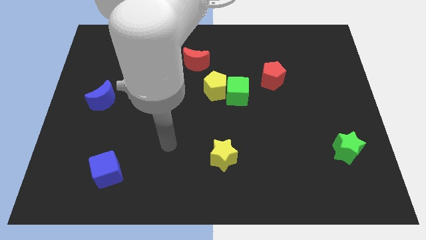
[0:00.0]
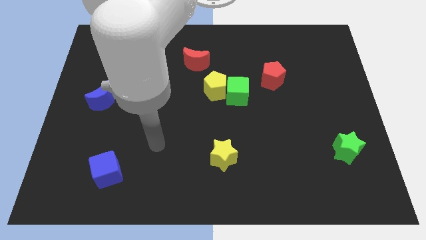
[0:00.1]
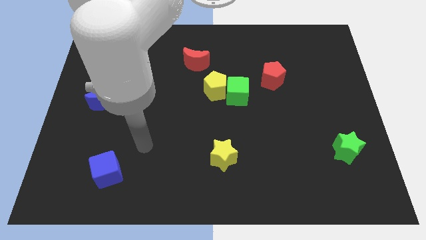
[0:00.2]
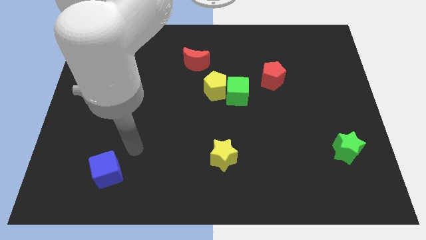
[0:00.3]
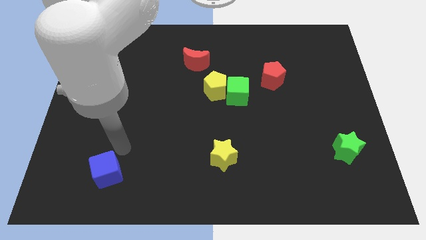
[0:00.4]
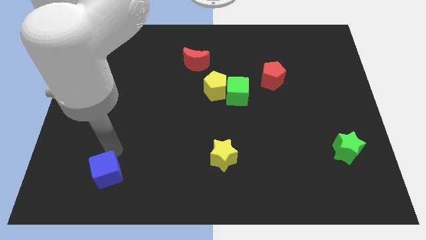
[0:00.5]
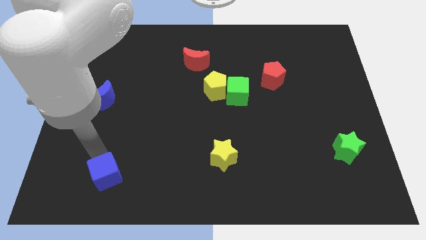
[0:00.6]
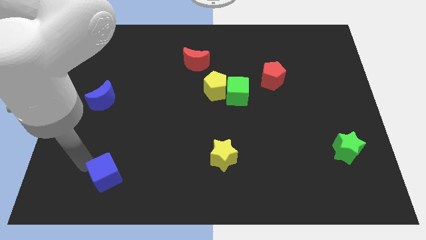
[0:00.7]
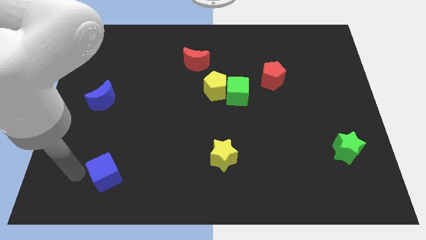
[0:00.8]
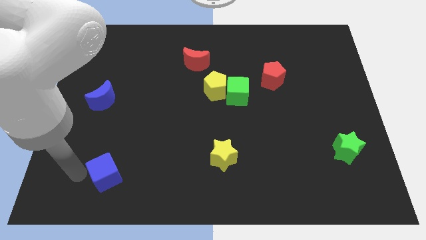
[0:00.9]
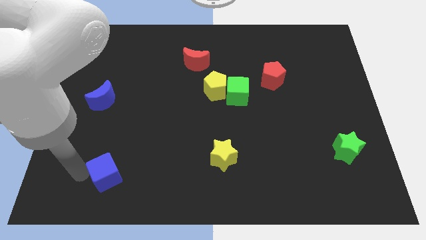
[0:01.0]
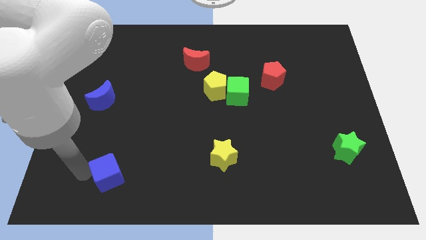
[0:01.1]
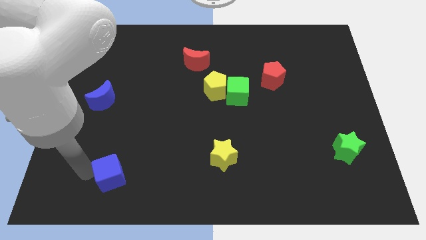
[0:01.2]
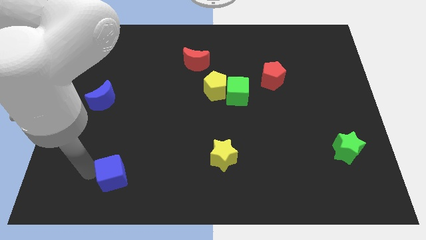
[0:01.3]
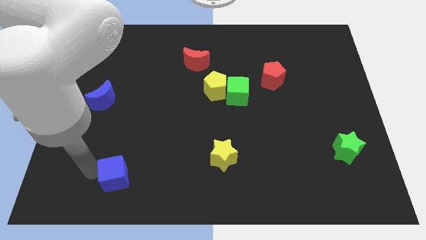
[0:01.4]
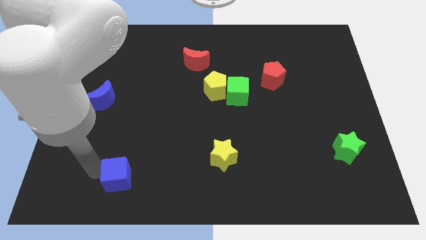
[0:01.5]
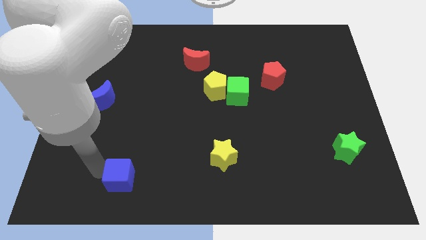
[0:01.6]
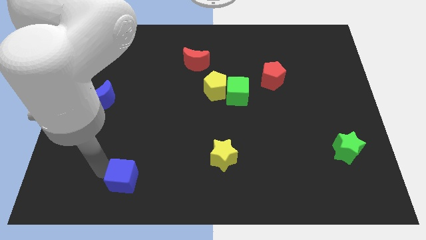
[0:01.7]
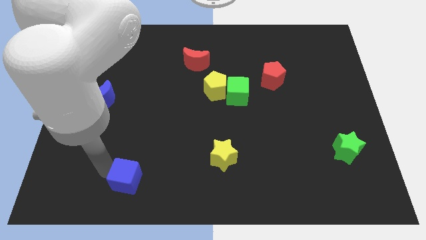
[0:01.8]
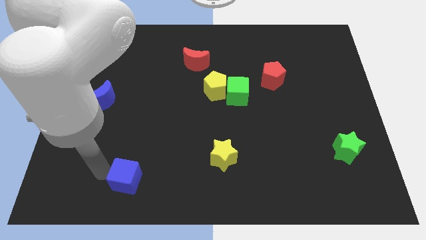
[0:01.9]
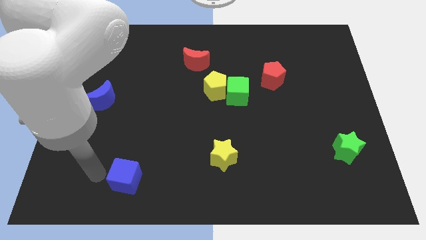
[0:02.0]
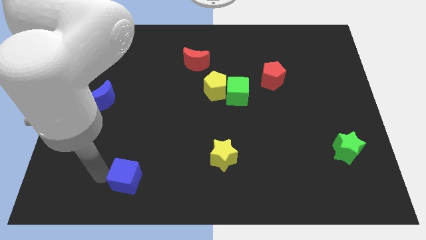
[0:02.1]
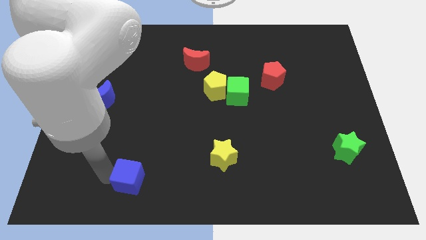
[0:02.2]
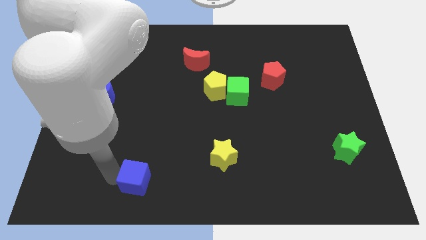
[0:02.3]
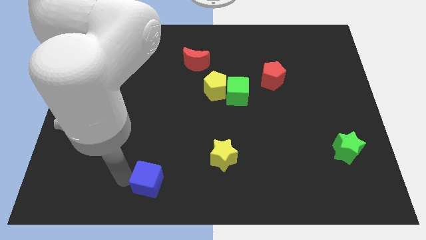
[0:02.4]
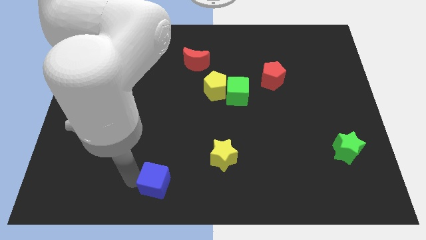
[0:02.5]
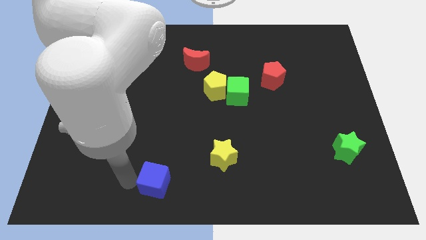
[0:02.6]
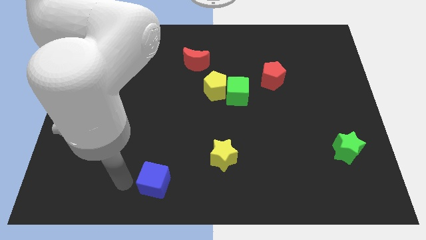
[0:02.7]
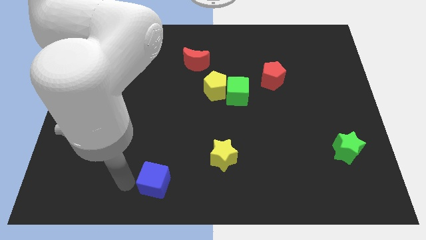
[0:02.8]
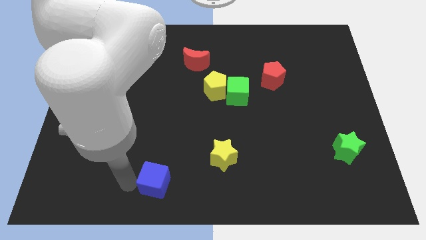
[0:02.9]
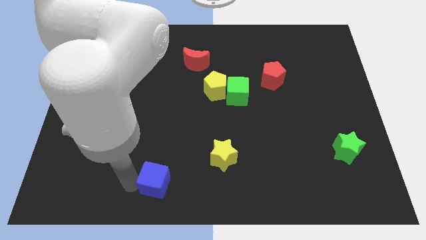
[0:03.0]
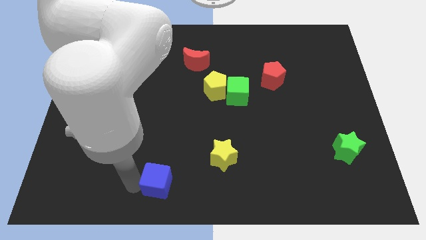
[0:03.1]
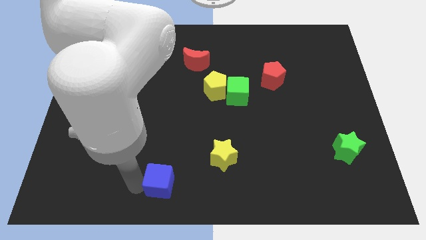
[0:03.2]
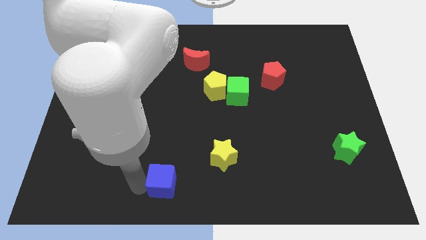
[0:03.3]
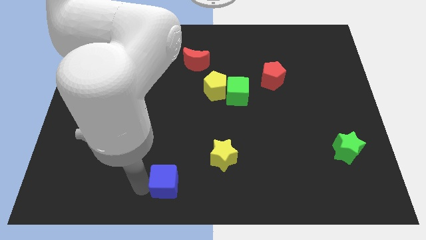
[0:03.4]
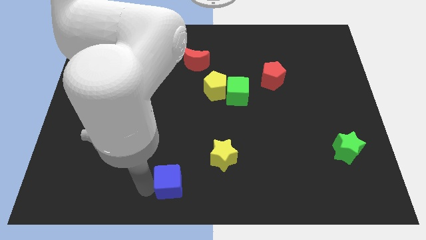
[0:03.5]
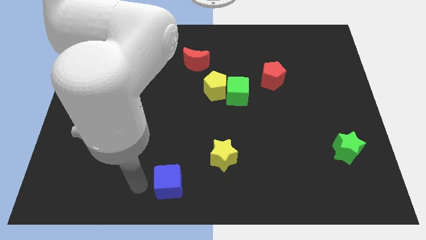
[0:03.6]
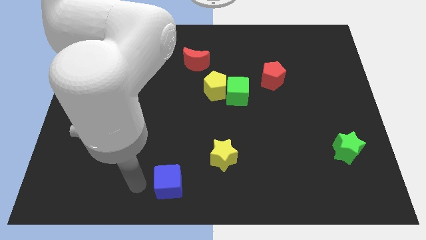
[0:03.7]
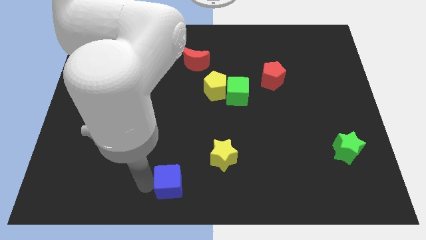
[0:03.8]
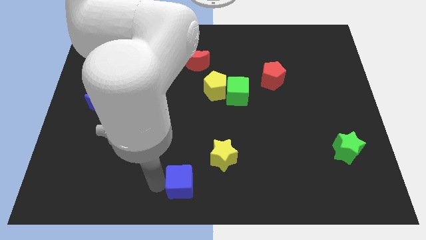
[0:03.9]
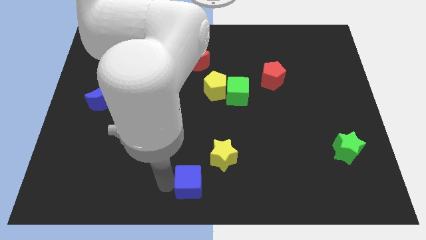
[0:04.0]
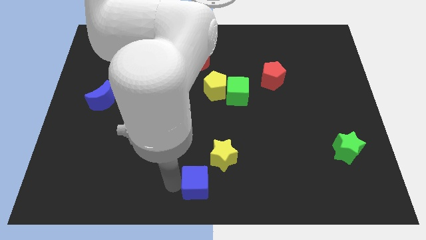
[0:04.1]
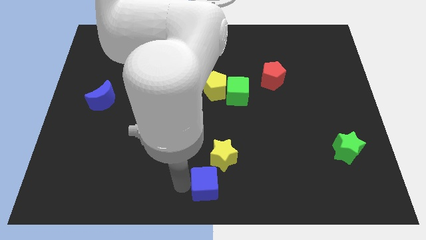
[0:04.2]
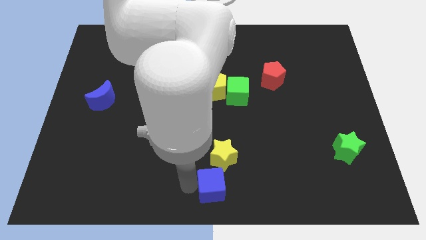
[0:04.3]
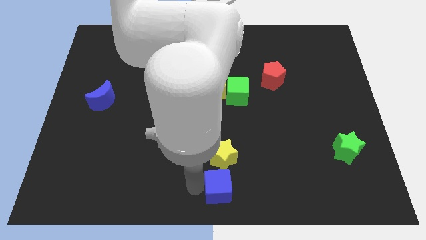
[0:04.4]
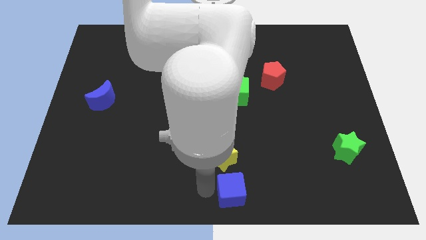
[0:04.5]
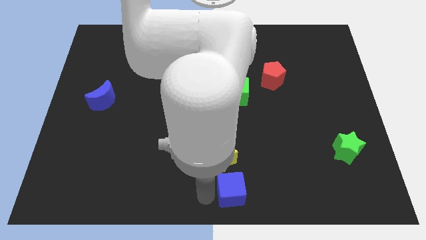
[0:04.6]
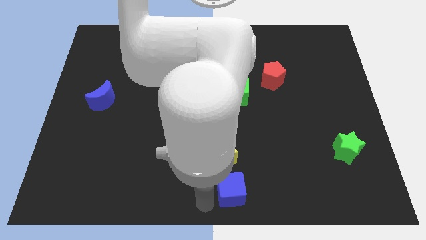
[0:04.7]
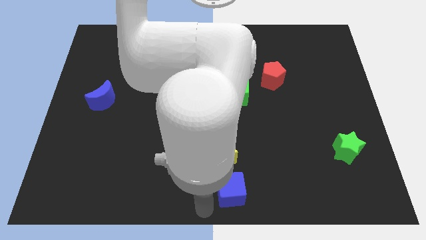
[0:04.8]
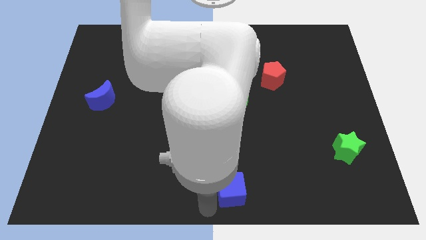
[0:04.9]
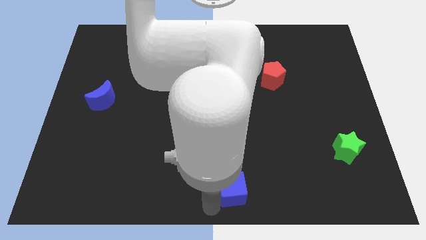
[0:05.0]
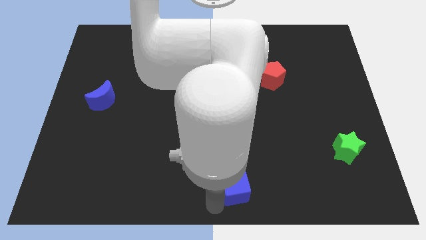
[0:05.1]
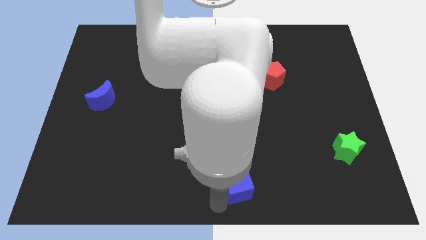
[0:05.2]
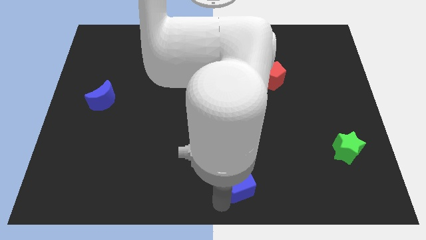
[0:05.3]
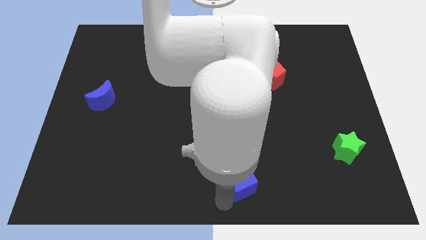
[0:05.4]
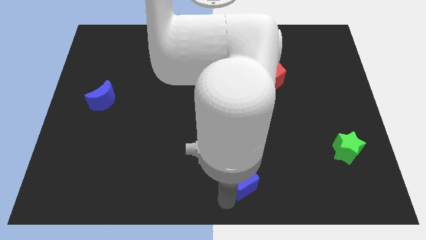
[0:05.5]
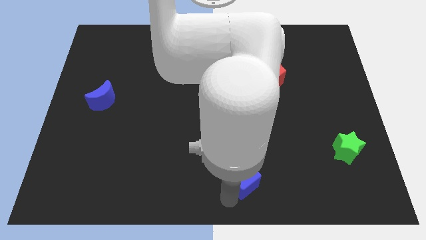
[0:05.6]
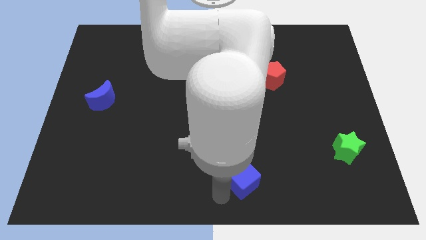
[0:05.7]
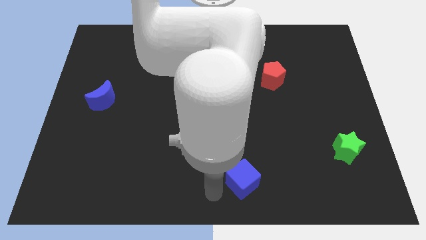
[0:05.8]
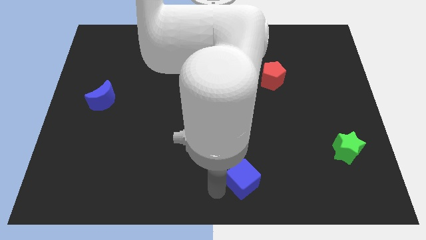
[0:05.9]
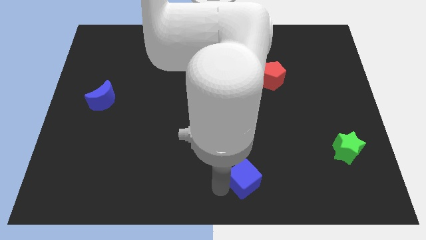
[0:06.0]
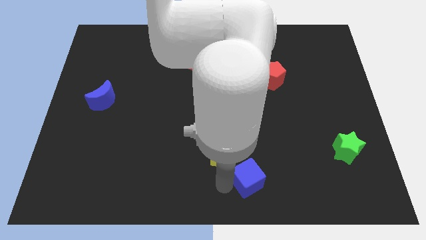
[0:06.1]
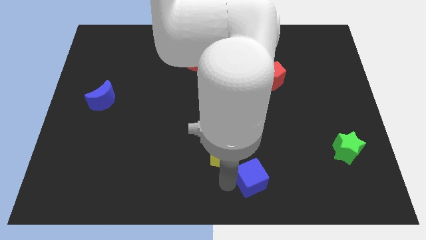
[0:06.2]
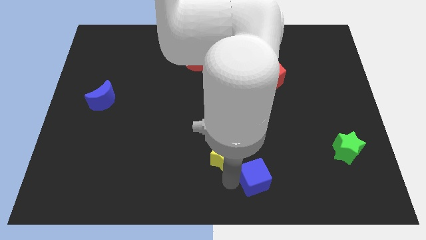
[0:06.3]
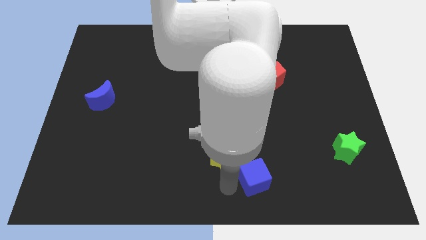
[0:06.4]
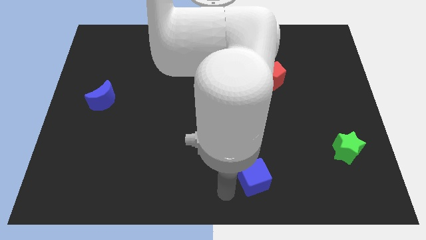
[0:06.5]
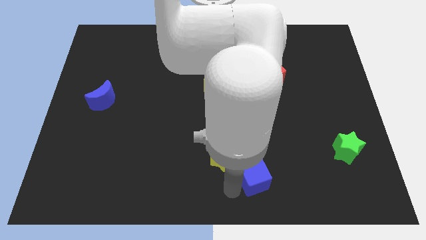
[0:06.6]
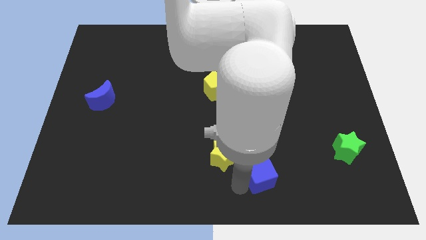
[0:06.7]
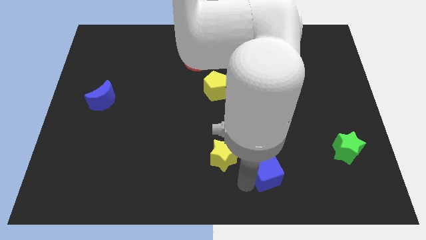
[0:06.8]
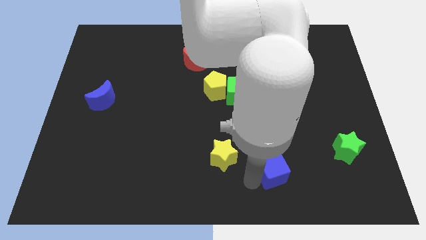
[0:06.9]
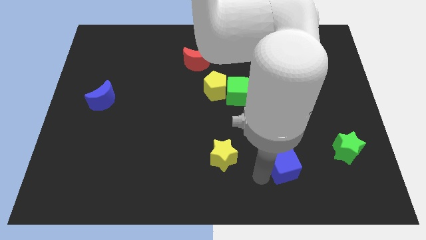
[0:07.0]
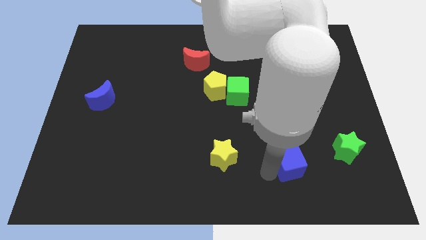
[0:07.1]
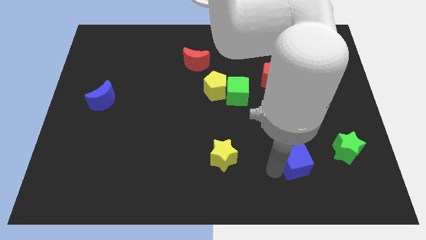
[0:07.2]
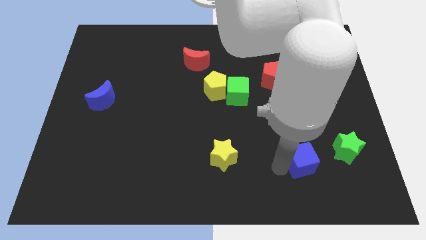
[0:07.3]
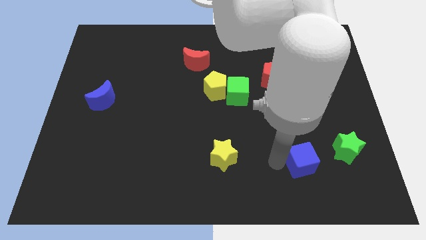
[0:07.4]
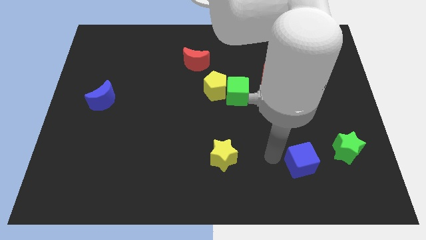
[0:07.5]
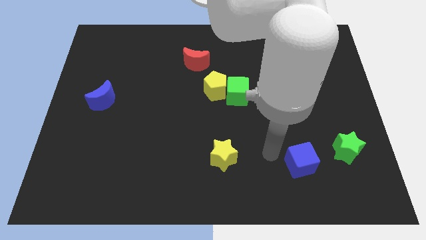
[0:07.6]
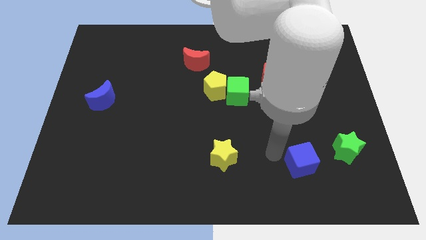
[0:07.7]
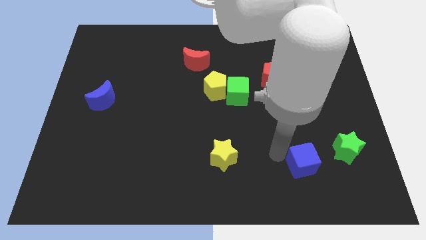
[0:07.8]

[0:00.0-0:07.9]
put the blue cube to the bottom left side of the green star
